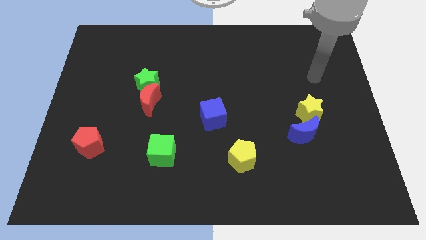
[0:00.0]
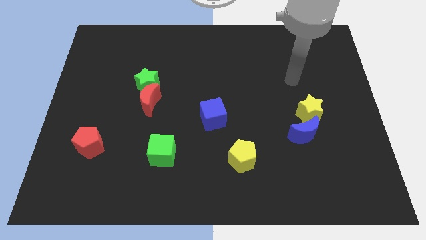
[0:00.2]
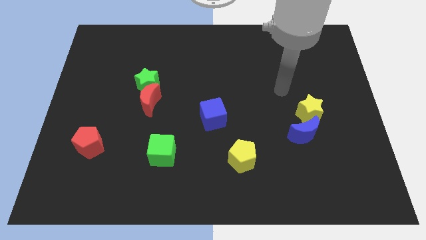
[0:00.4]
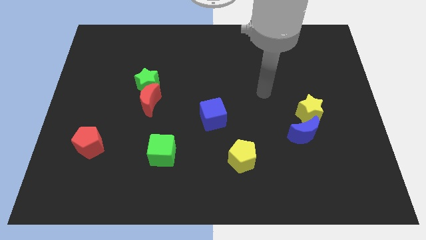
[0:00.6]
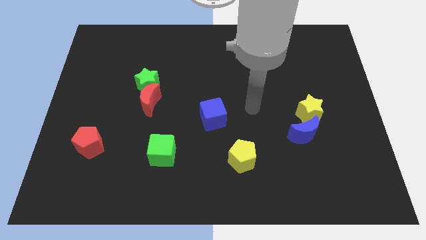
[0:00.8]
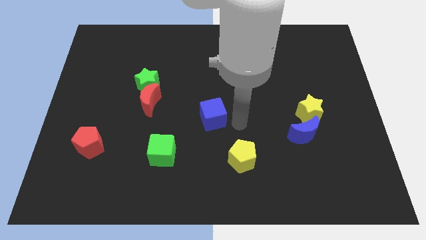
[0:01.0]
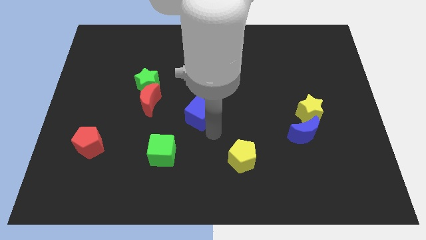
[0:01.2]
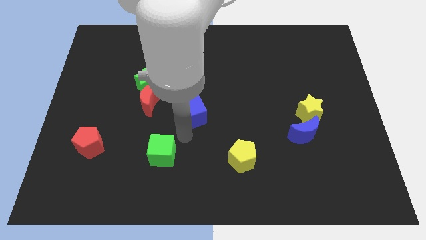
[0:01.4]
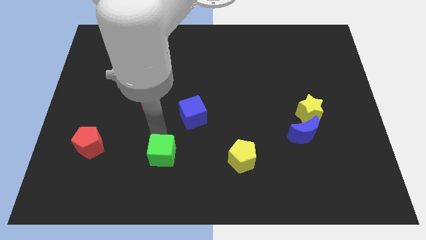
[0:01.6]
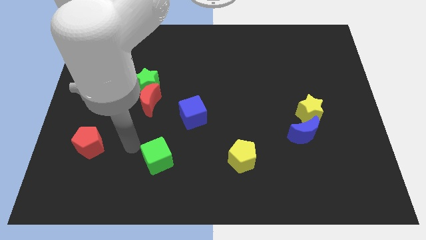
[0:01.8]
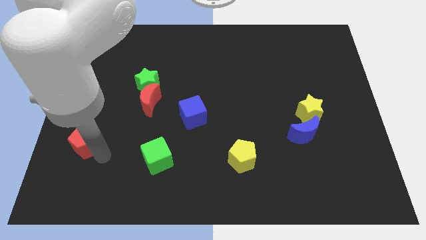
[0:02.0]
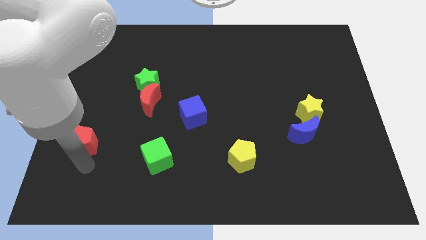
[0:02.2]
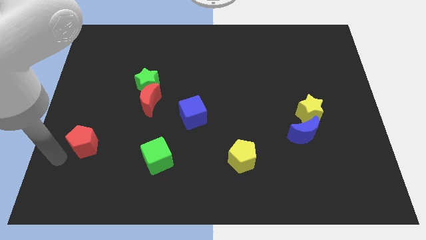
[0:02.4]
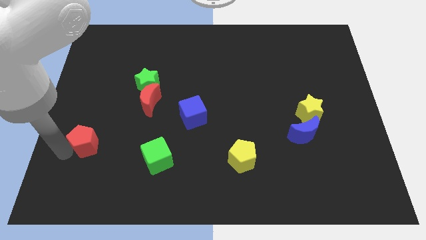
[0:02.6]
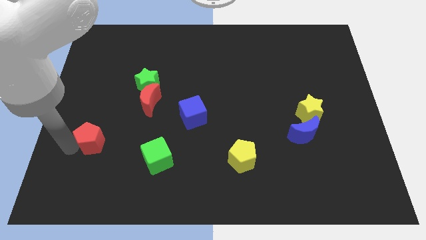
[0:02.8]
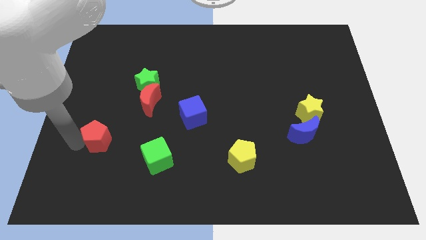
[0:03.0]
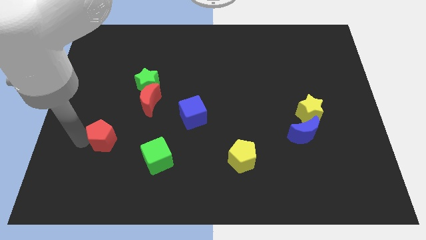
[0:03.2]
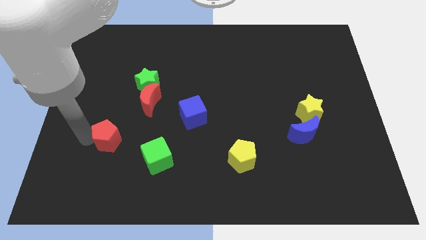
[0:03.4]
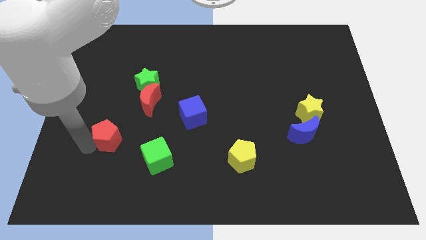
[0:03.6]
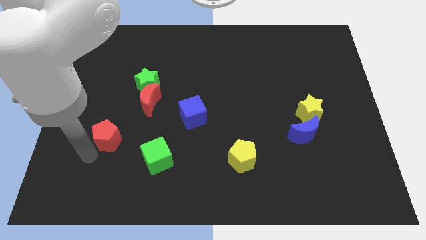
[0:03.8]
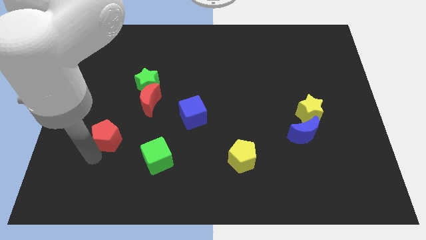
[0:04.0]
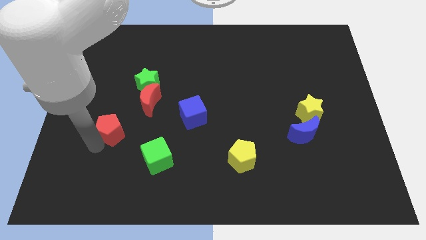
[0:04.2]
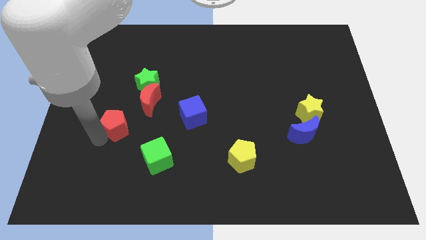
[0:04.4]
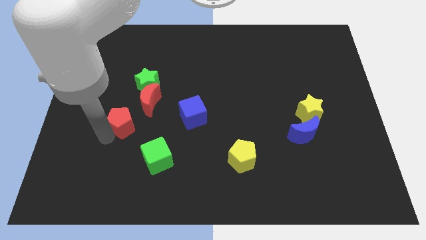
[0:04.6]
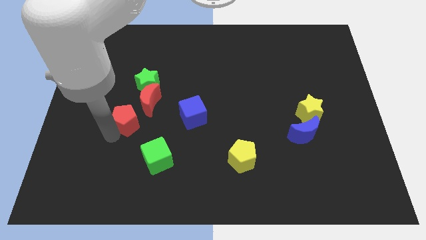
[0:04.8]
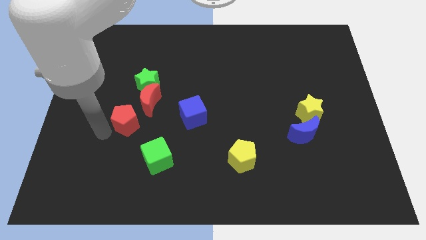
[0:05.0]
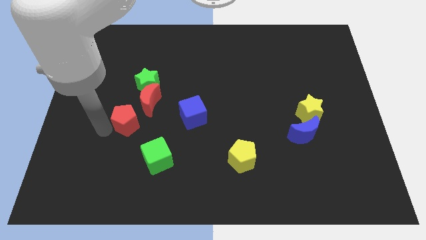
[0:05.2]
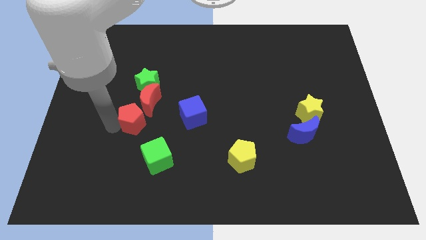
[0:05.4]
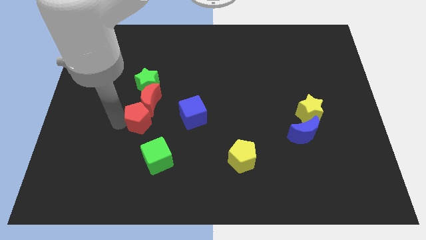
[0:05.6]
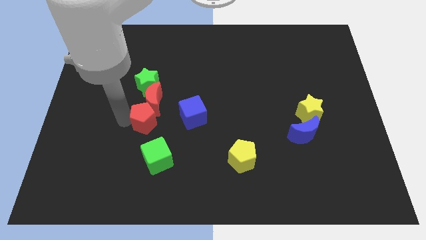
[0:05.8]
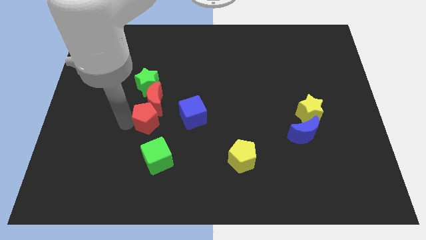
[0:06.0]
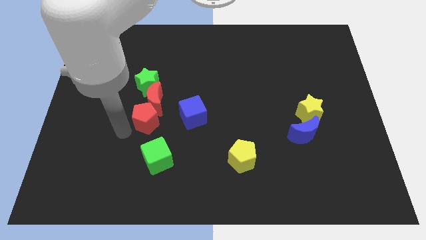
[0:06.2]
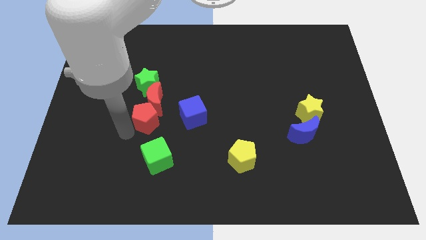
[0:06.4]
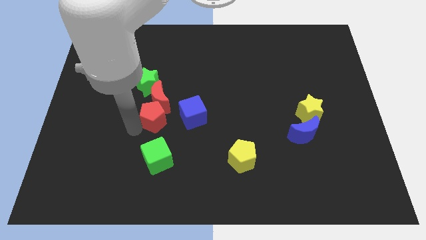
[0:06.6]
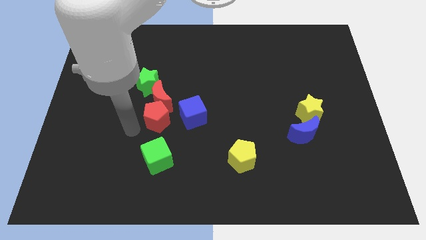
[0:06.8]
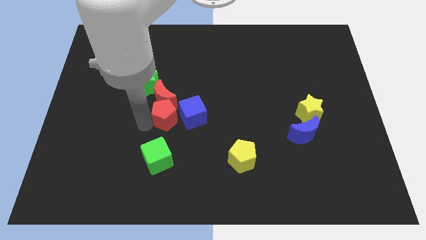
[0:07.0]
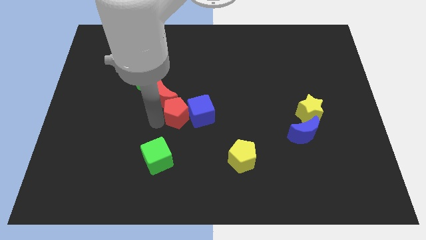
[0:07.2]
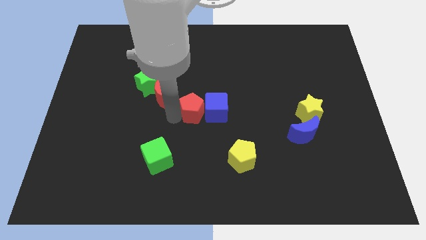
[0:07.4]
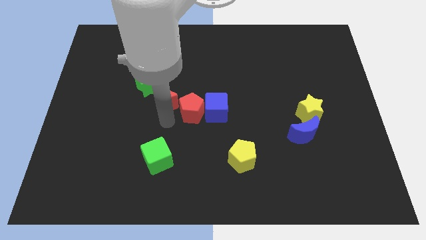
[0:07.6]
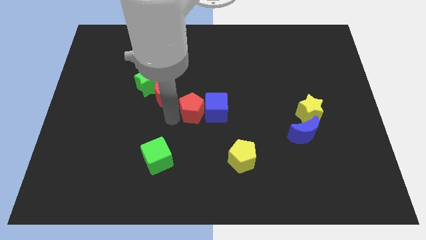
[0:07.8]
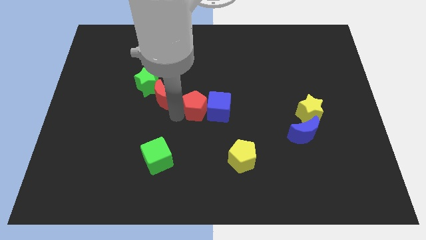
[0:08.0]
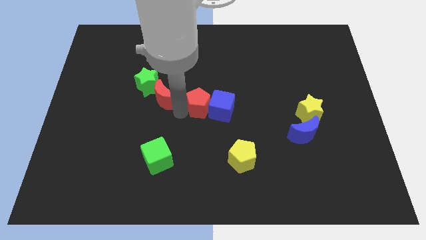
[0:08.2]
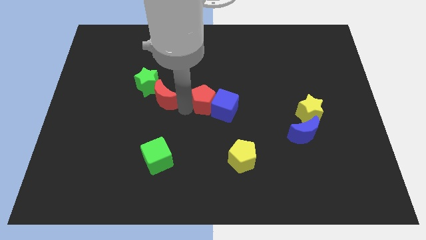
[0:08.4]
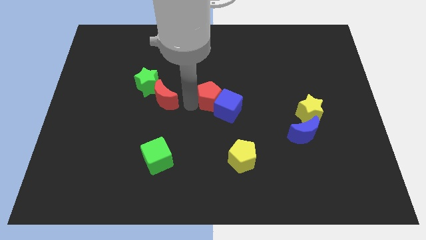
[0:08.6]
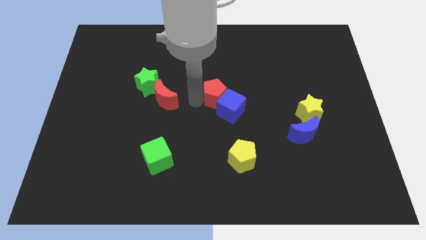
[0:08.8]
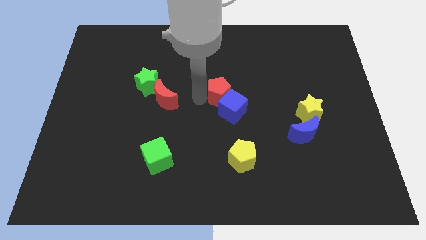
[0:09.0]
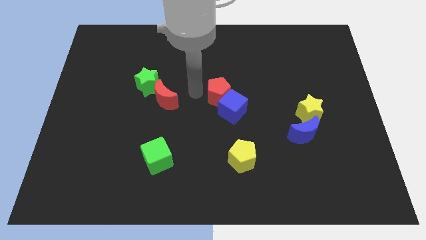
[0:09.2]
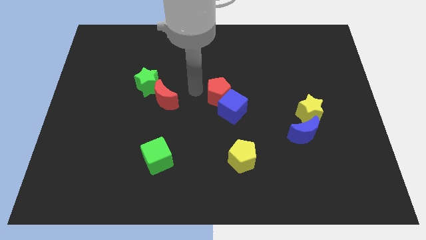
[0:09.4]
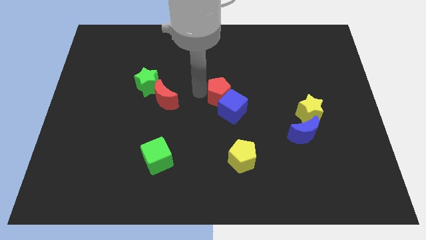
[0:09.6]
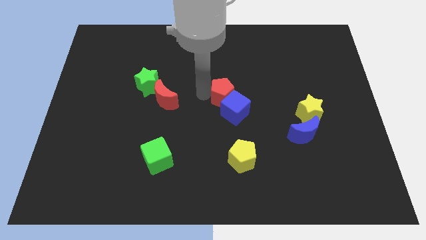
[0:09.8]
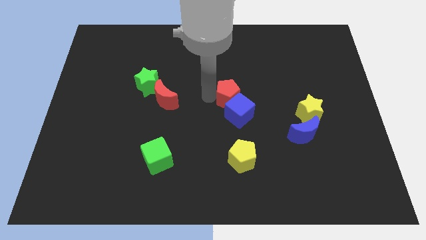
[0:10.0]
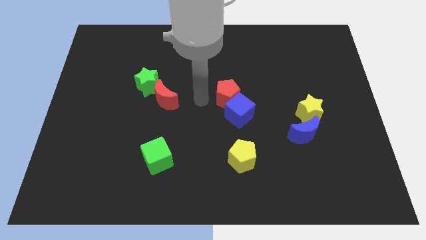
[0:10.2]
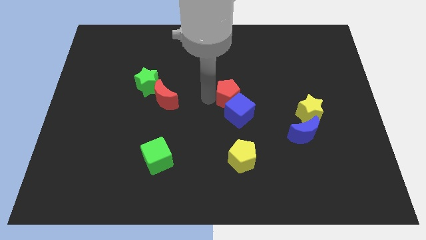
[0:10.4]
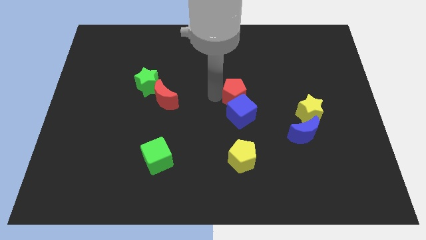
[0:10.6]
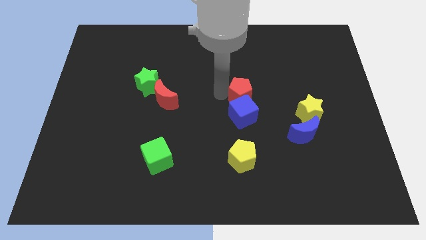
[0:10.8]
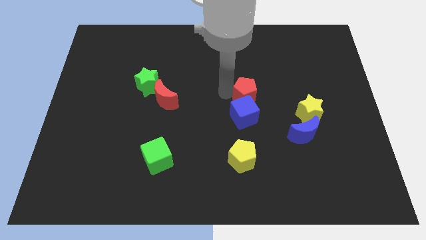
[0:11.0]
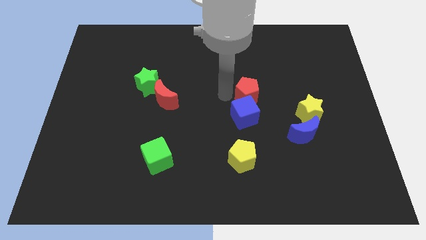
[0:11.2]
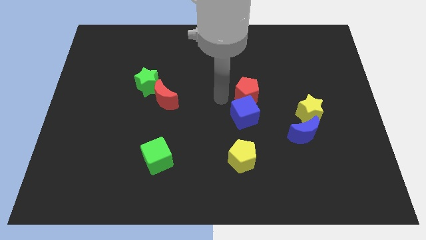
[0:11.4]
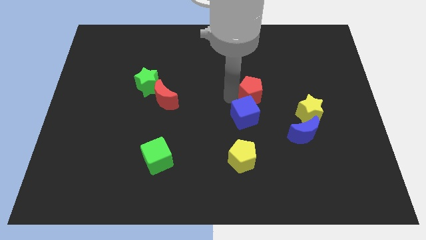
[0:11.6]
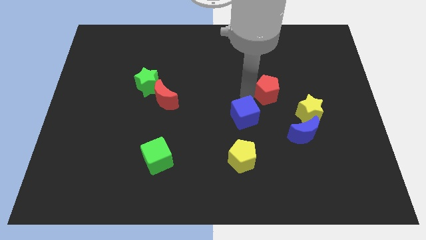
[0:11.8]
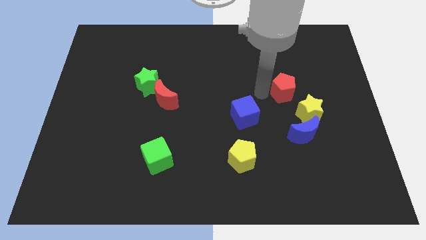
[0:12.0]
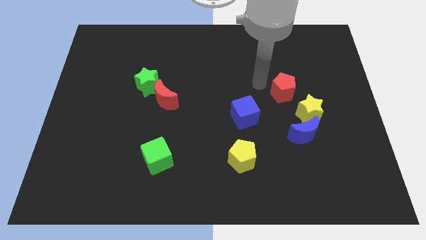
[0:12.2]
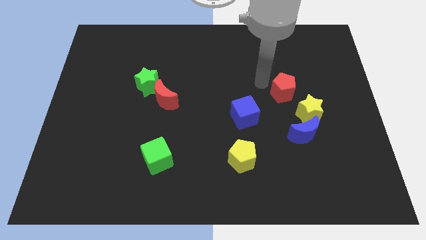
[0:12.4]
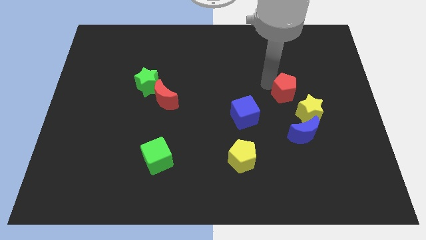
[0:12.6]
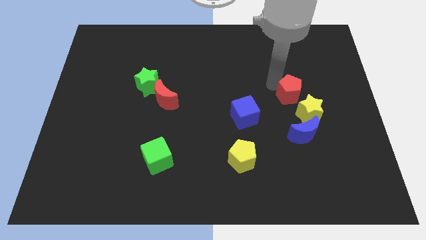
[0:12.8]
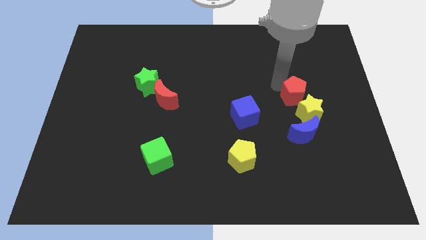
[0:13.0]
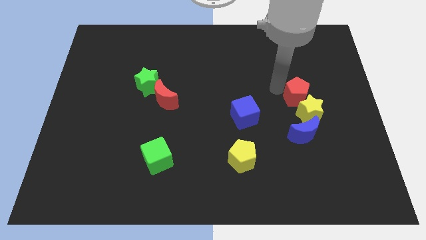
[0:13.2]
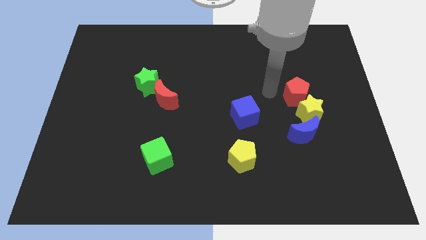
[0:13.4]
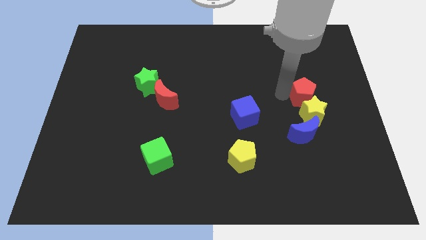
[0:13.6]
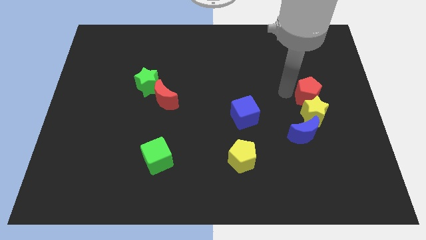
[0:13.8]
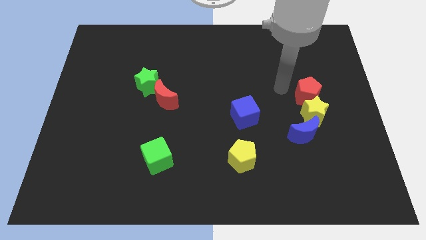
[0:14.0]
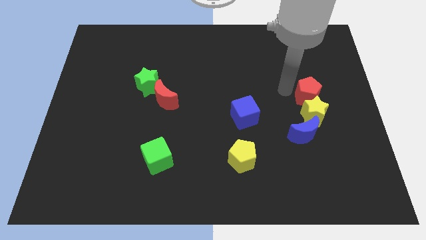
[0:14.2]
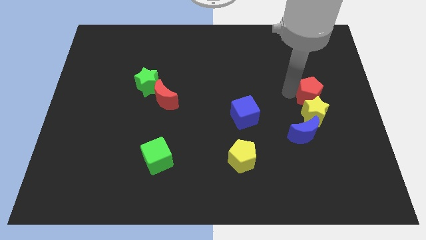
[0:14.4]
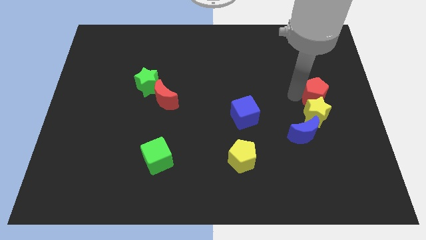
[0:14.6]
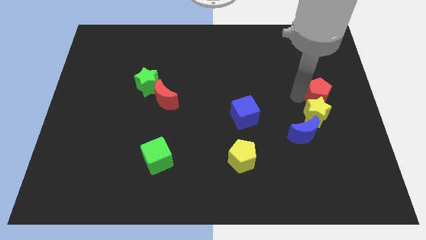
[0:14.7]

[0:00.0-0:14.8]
put the red pentagon to the right side of the board
